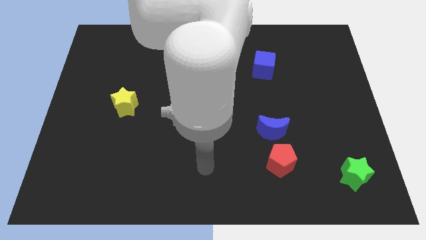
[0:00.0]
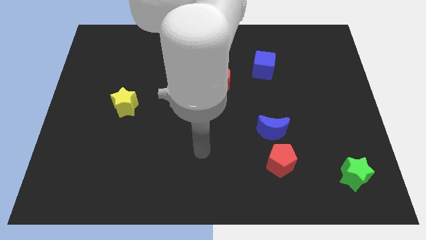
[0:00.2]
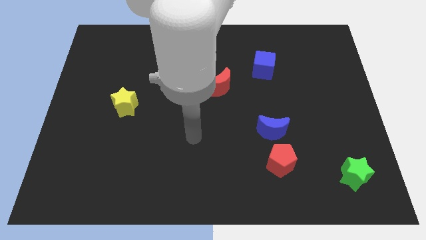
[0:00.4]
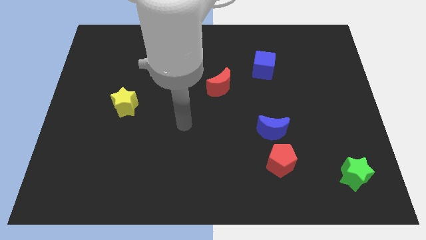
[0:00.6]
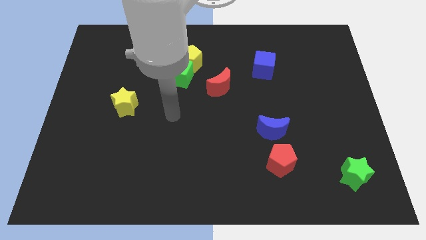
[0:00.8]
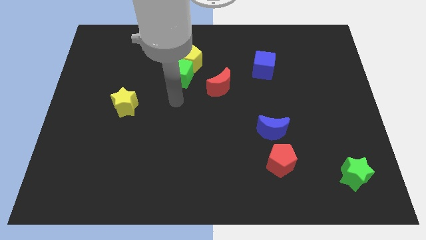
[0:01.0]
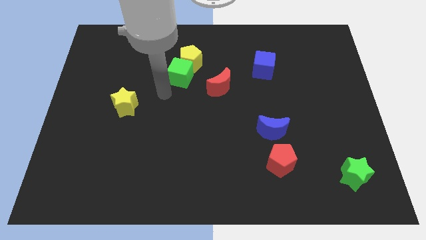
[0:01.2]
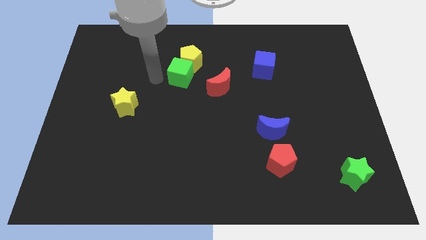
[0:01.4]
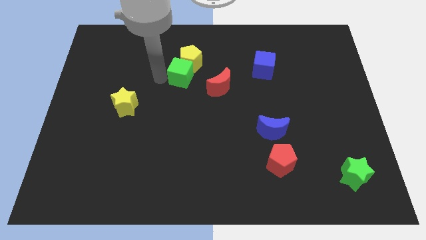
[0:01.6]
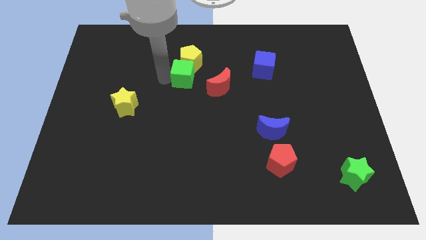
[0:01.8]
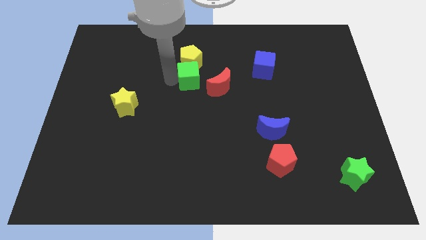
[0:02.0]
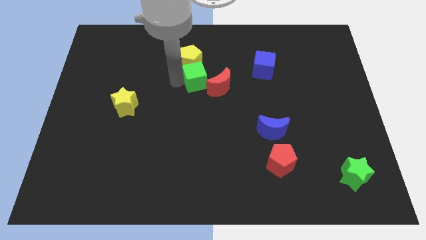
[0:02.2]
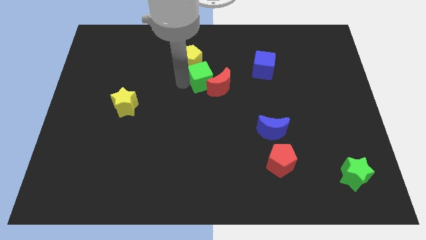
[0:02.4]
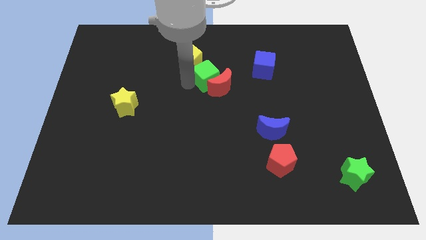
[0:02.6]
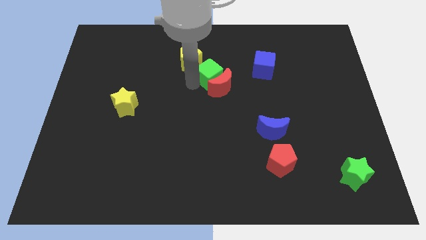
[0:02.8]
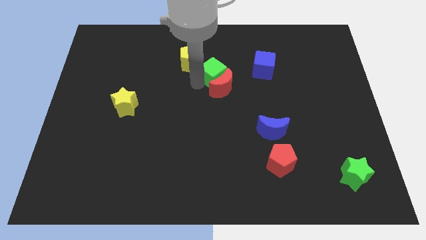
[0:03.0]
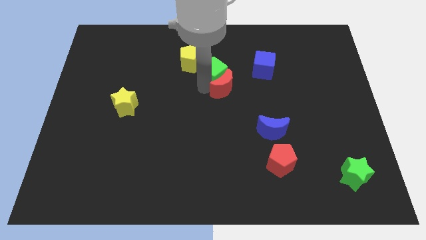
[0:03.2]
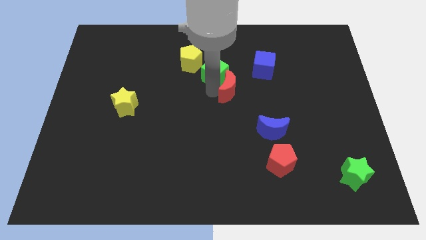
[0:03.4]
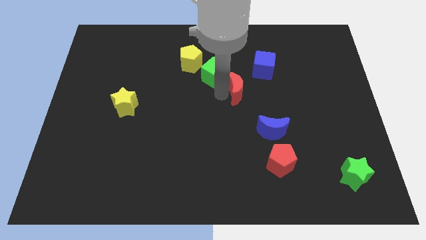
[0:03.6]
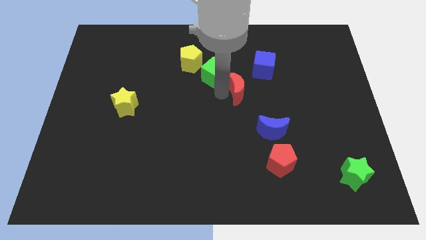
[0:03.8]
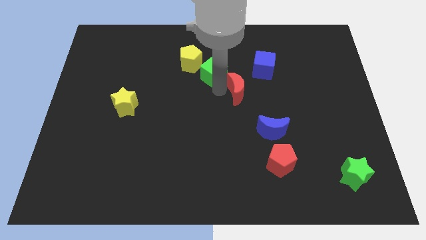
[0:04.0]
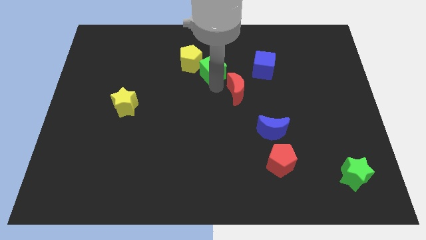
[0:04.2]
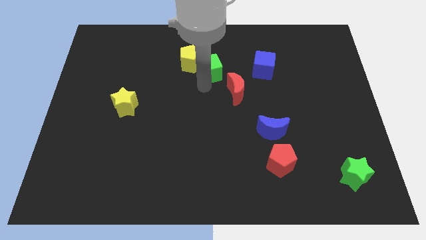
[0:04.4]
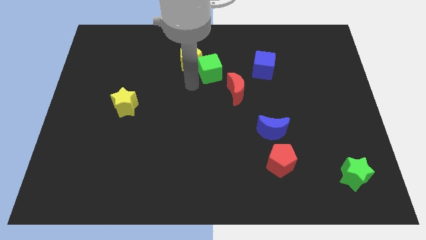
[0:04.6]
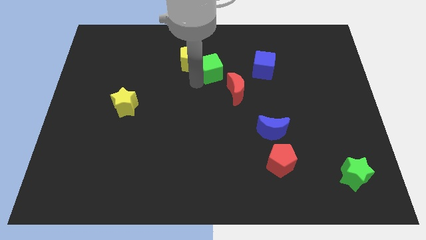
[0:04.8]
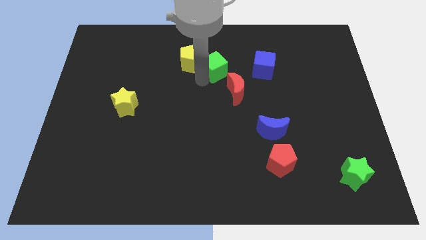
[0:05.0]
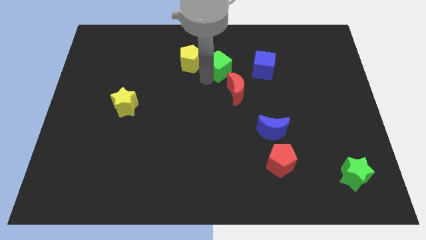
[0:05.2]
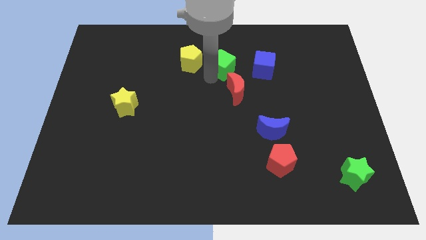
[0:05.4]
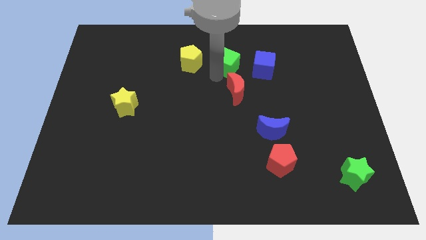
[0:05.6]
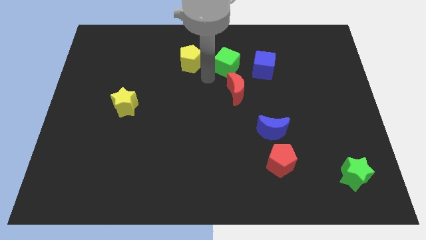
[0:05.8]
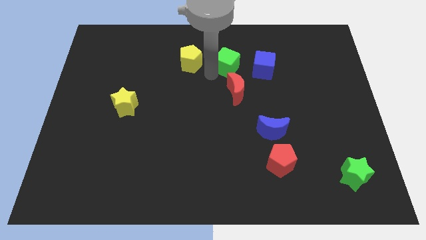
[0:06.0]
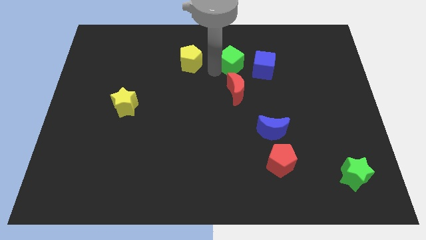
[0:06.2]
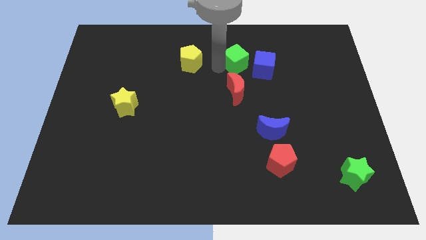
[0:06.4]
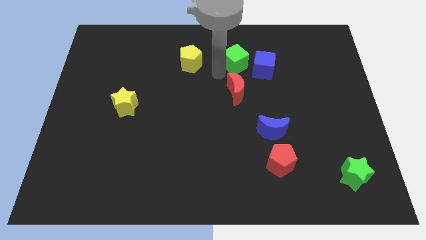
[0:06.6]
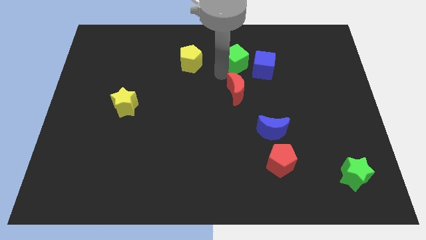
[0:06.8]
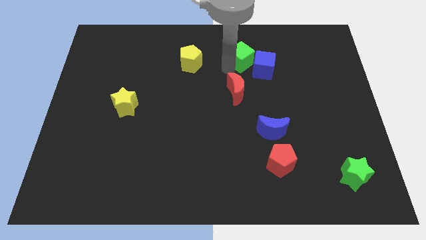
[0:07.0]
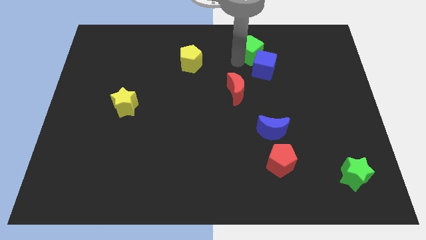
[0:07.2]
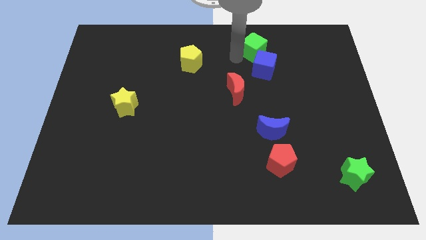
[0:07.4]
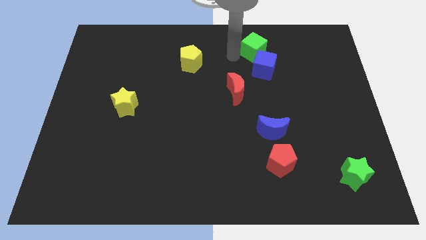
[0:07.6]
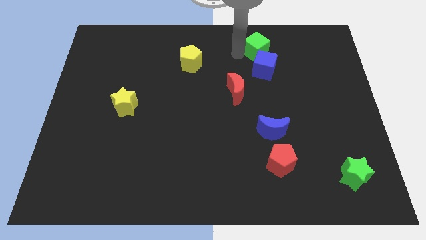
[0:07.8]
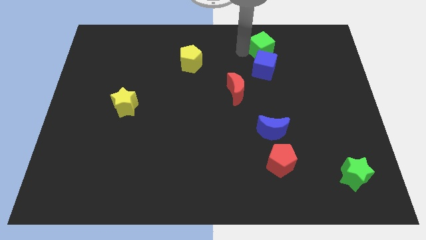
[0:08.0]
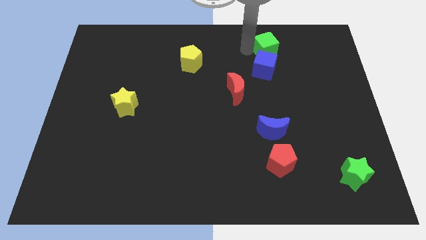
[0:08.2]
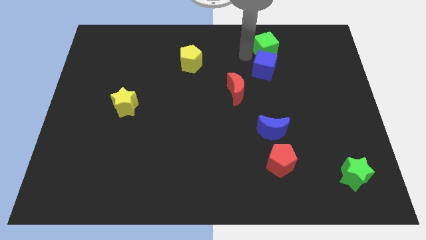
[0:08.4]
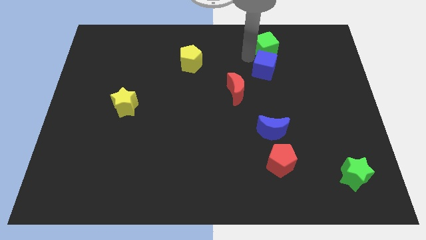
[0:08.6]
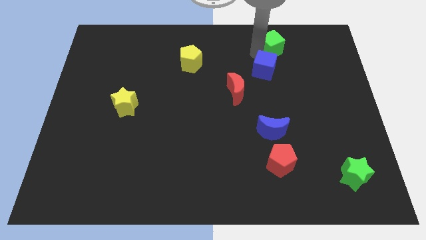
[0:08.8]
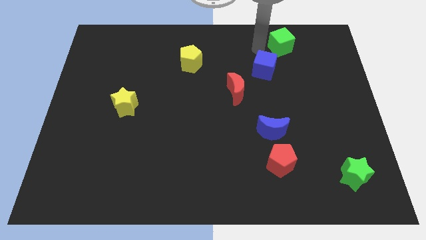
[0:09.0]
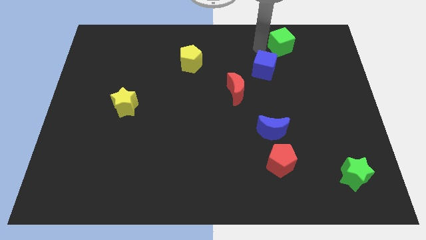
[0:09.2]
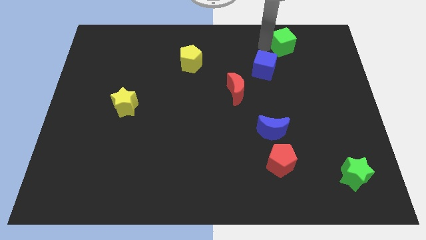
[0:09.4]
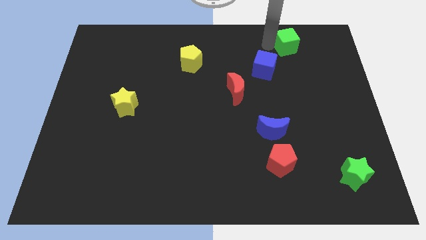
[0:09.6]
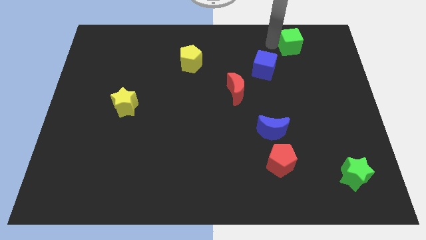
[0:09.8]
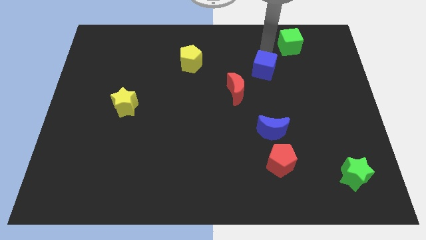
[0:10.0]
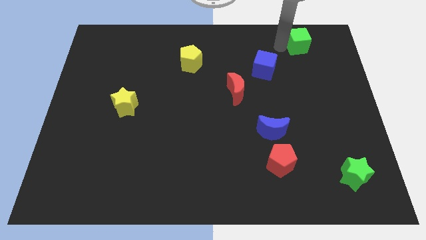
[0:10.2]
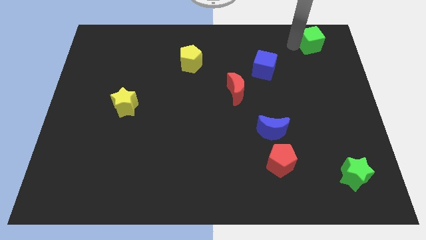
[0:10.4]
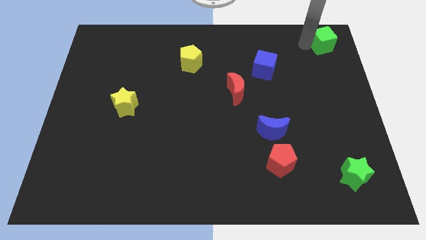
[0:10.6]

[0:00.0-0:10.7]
put the green cube to the top right of the board

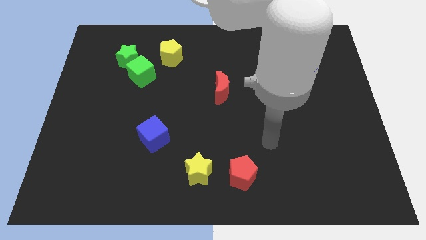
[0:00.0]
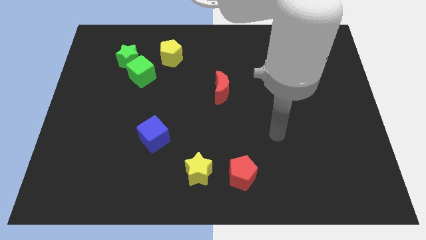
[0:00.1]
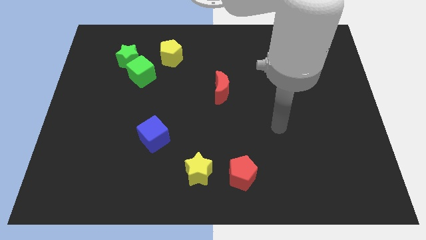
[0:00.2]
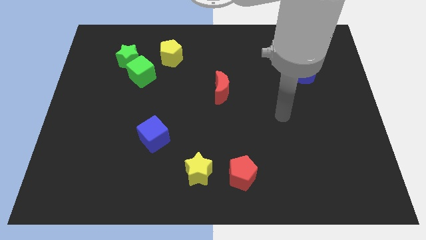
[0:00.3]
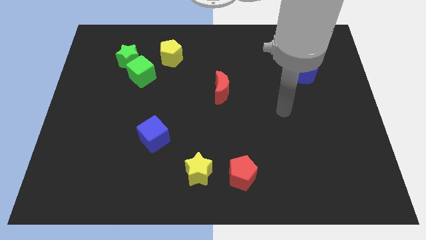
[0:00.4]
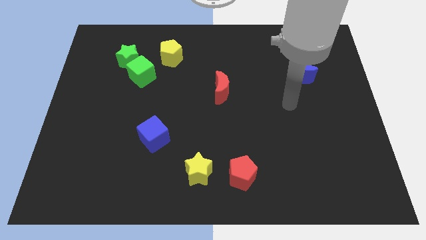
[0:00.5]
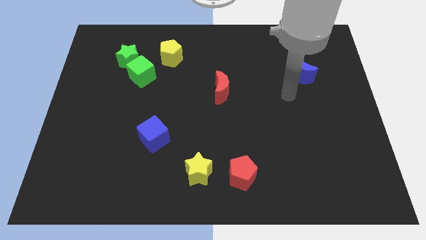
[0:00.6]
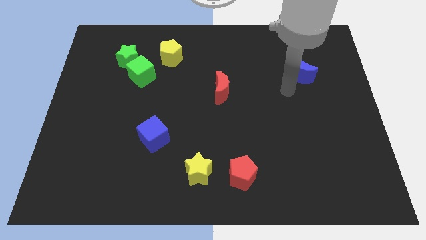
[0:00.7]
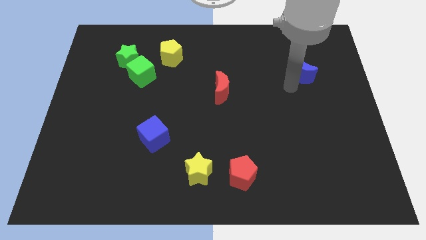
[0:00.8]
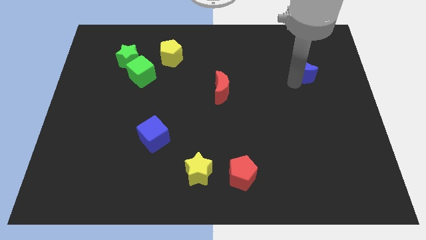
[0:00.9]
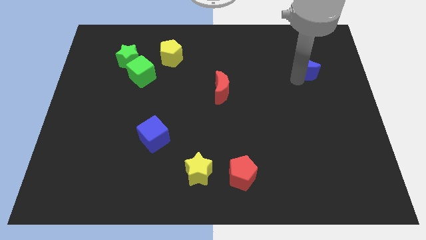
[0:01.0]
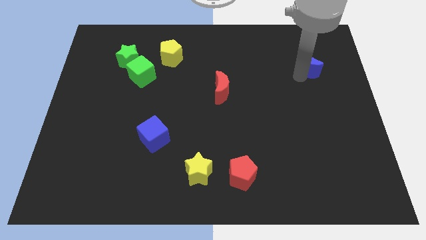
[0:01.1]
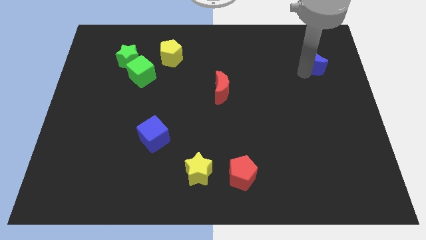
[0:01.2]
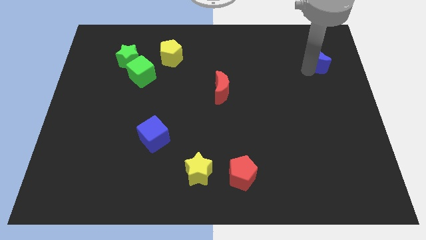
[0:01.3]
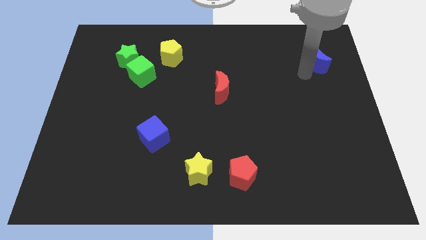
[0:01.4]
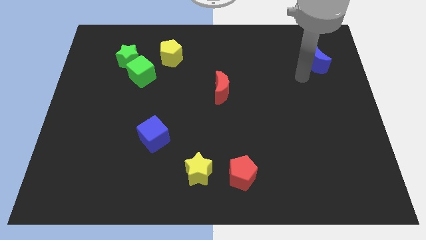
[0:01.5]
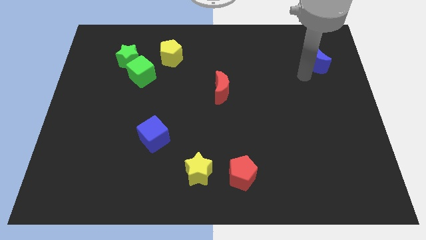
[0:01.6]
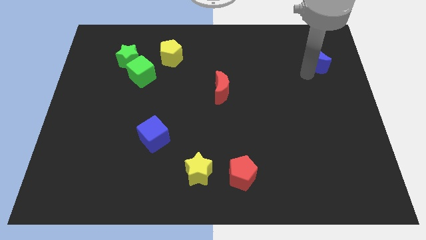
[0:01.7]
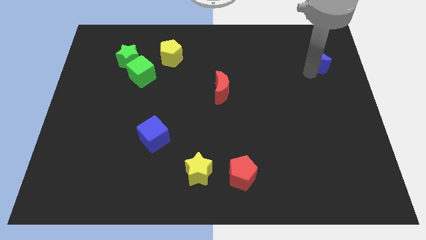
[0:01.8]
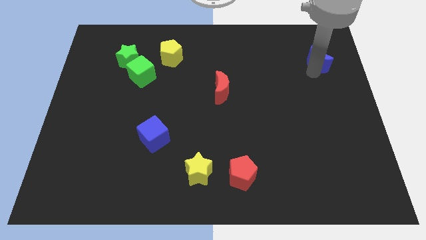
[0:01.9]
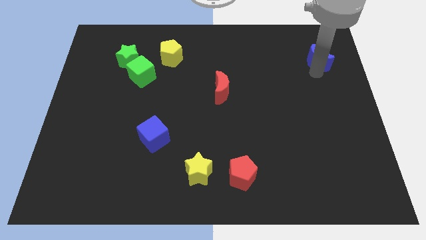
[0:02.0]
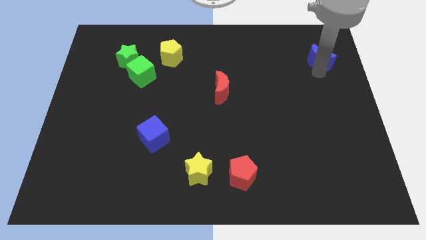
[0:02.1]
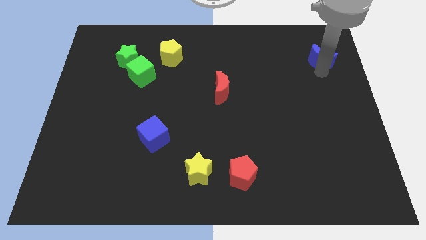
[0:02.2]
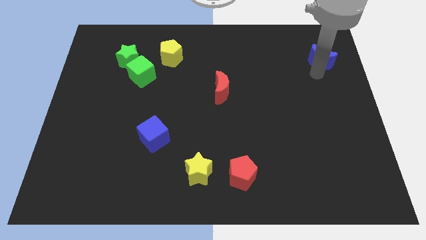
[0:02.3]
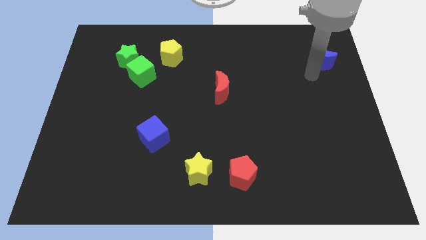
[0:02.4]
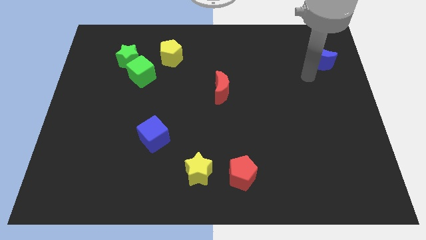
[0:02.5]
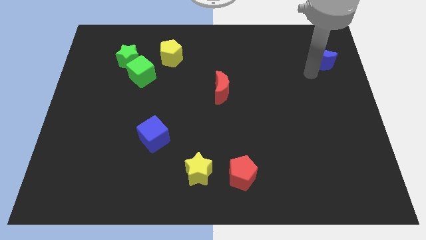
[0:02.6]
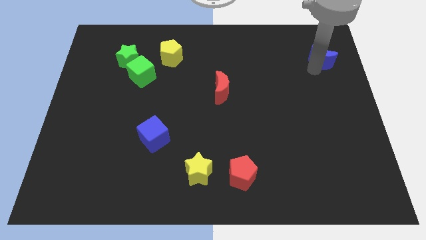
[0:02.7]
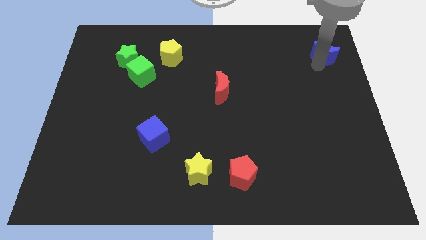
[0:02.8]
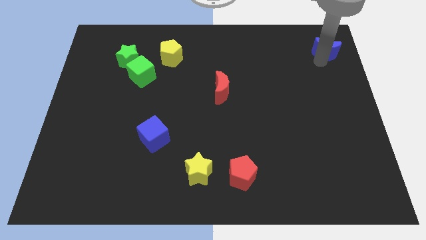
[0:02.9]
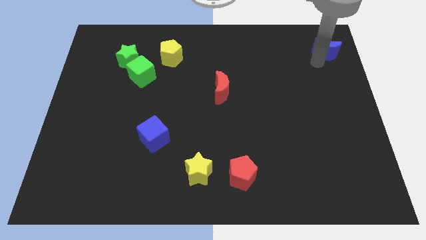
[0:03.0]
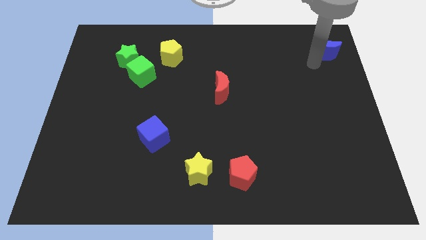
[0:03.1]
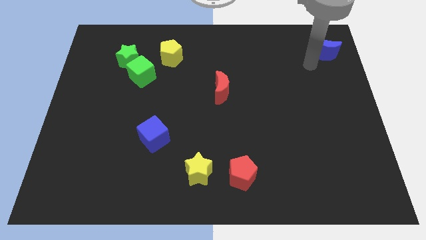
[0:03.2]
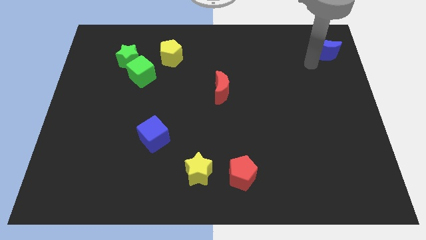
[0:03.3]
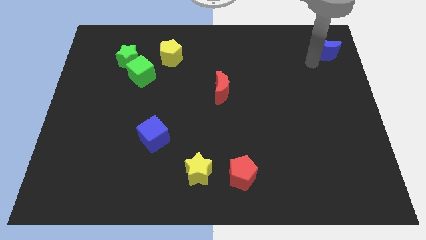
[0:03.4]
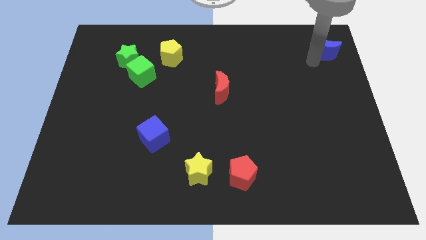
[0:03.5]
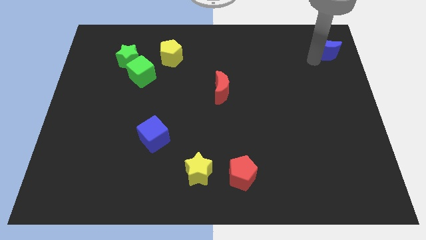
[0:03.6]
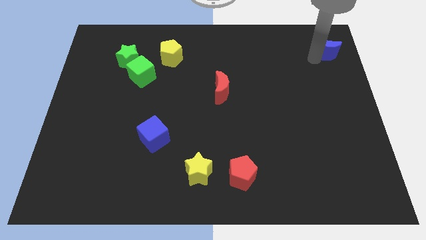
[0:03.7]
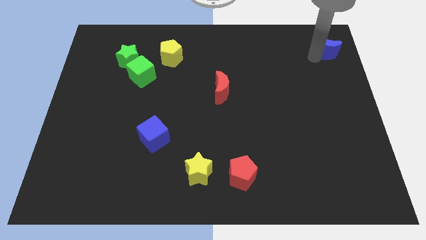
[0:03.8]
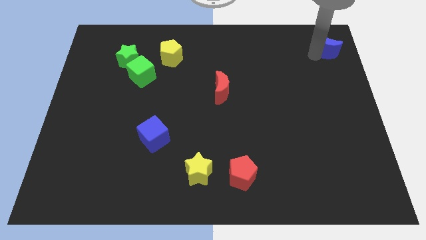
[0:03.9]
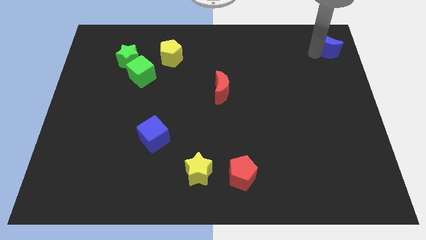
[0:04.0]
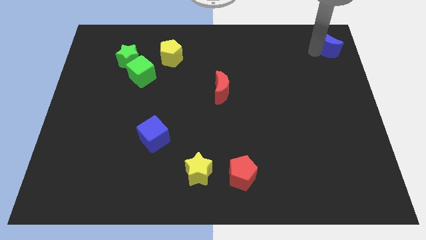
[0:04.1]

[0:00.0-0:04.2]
move the blue moon to the top right
